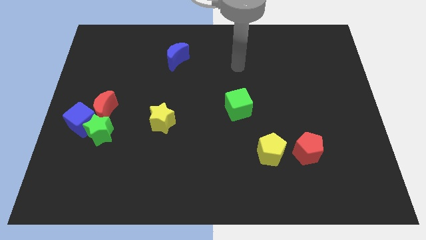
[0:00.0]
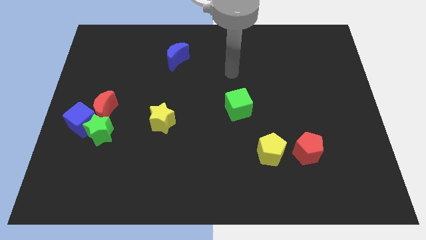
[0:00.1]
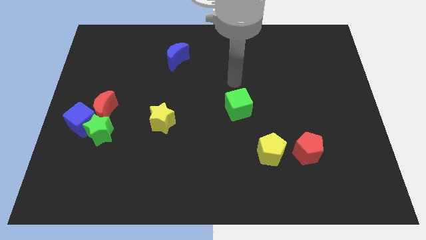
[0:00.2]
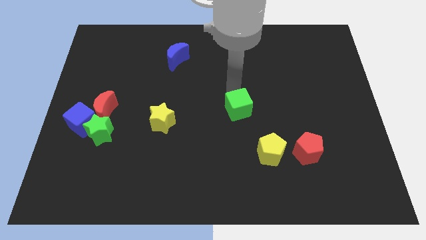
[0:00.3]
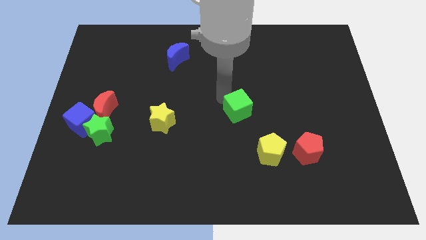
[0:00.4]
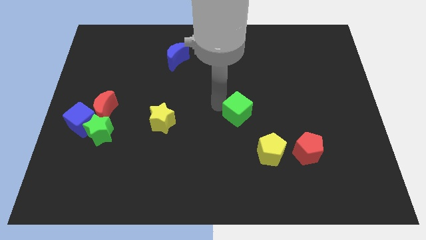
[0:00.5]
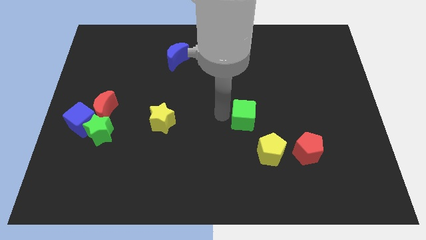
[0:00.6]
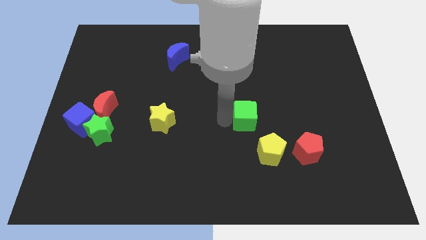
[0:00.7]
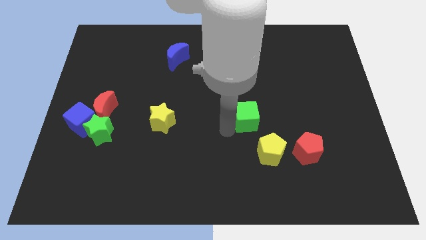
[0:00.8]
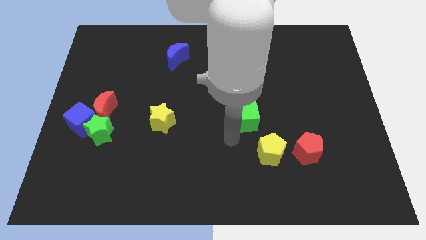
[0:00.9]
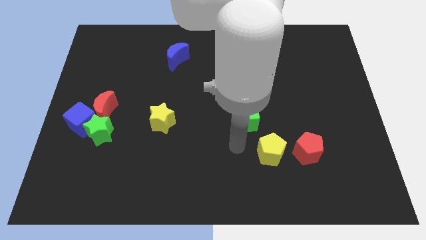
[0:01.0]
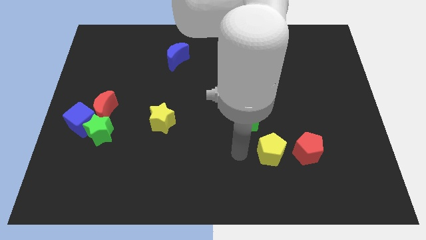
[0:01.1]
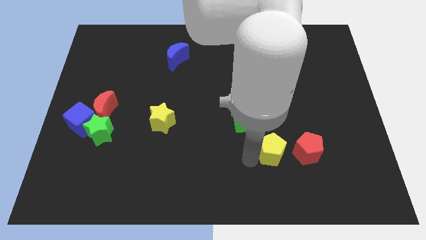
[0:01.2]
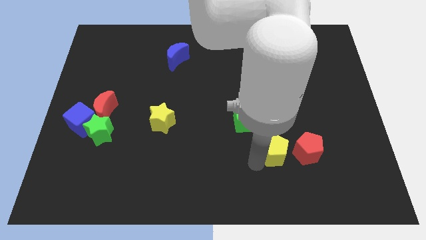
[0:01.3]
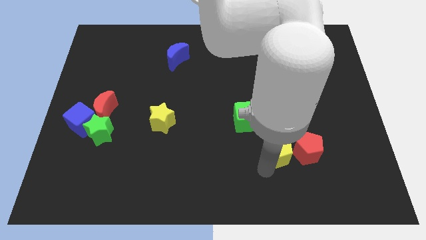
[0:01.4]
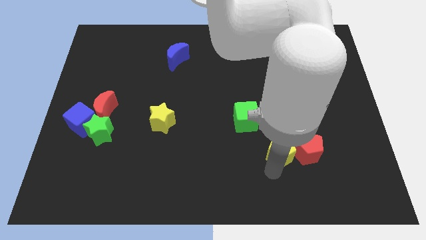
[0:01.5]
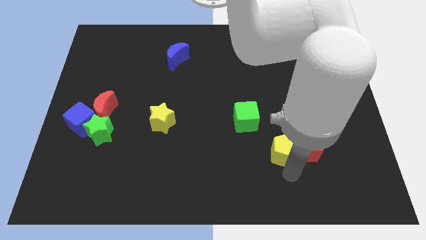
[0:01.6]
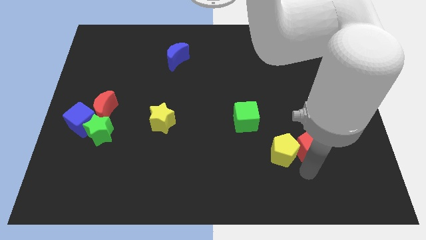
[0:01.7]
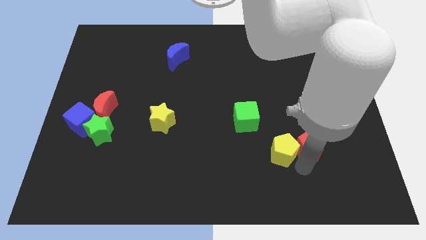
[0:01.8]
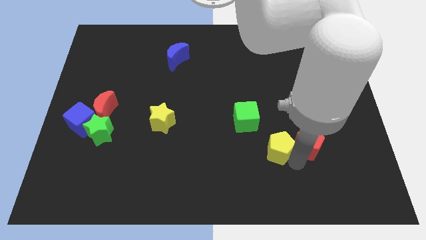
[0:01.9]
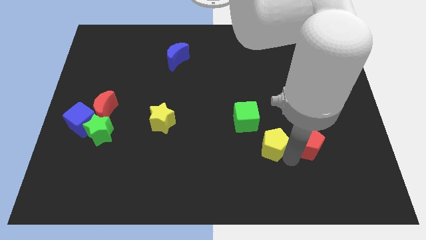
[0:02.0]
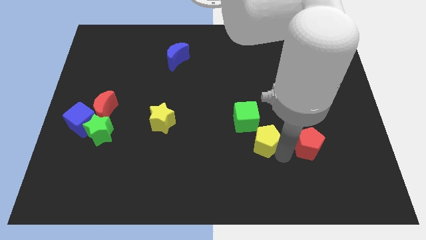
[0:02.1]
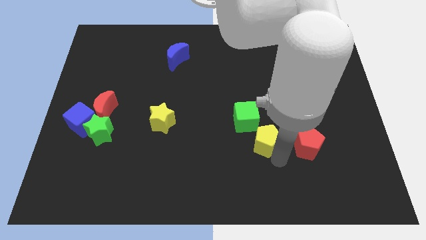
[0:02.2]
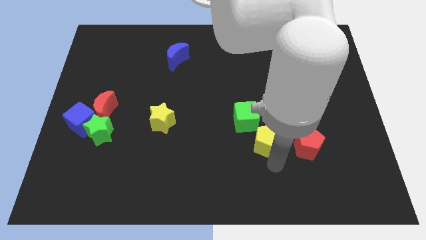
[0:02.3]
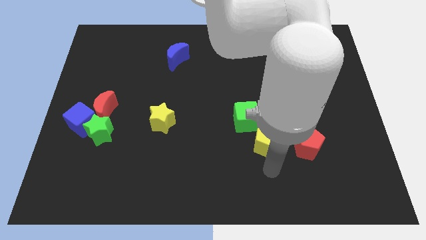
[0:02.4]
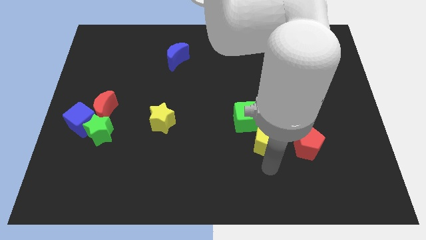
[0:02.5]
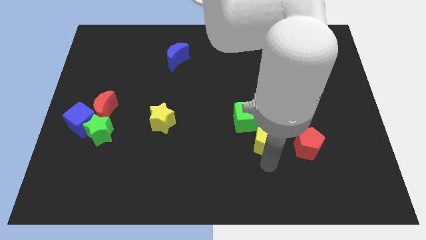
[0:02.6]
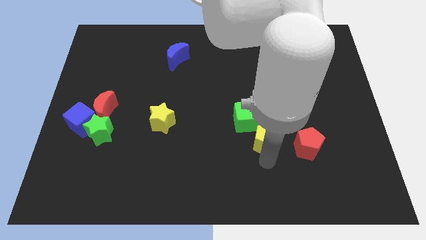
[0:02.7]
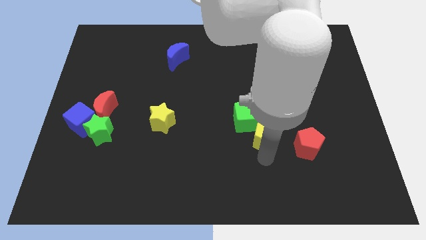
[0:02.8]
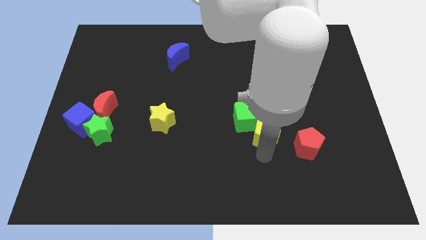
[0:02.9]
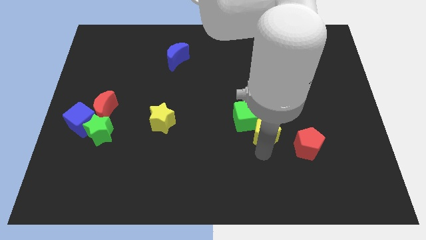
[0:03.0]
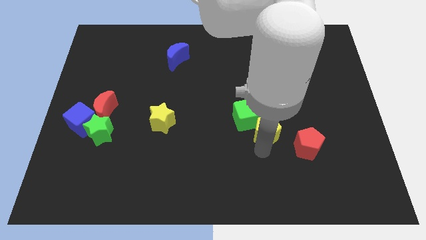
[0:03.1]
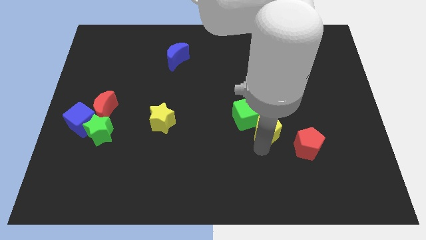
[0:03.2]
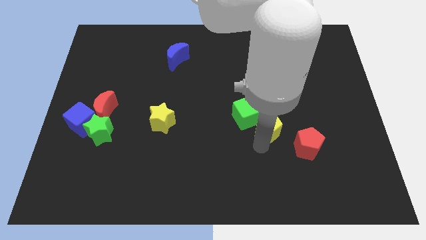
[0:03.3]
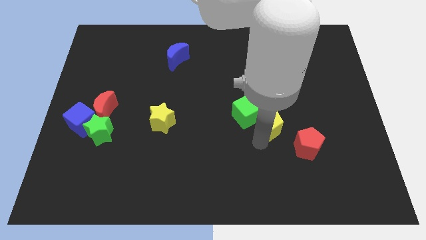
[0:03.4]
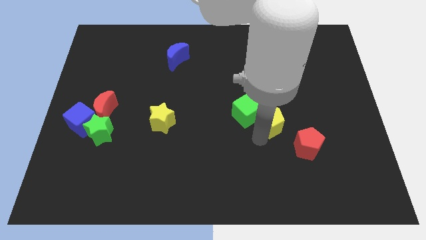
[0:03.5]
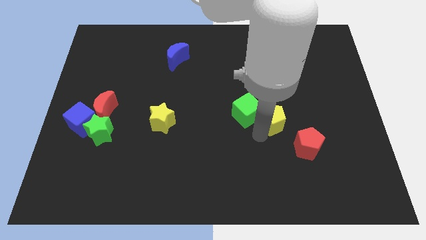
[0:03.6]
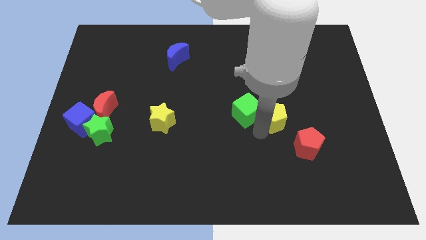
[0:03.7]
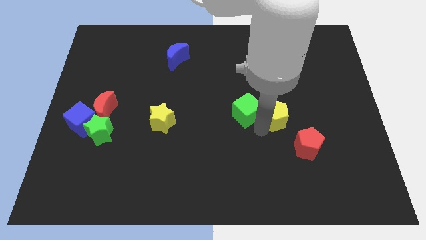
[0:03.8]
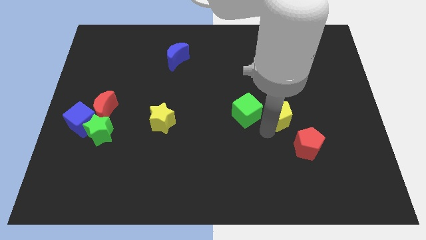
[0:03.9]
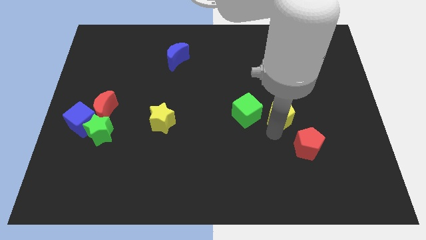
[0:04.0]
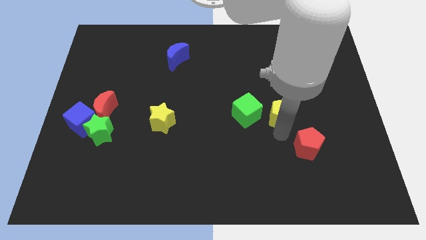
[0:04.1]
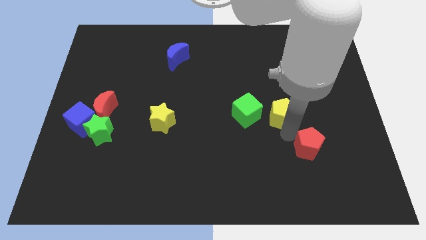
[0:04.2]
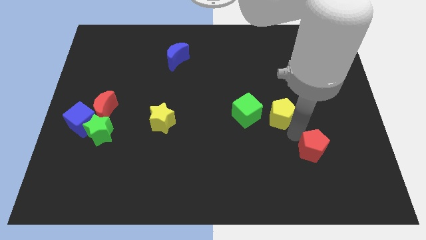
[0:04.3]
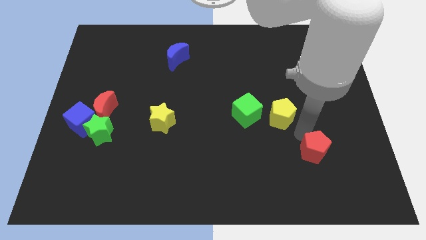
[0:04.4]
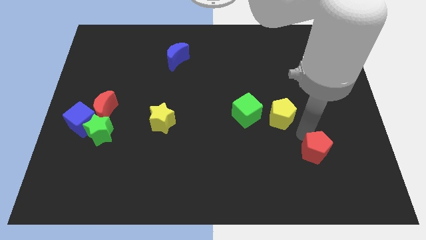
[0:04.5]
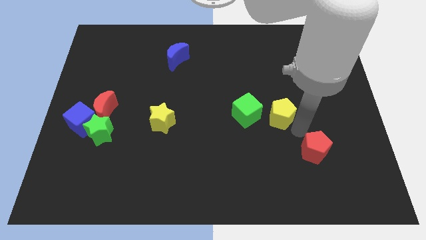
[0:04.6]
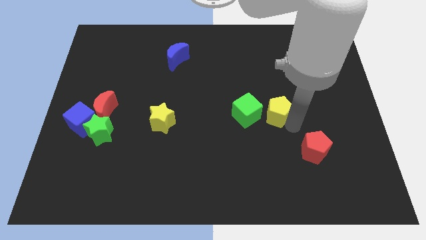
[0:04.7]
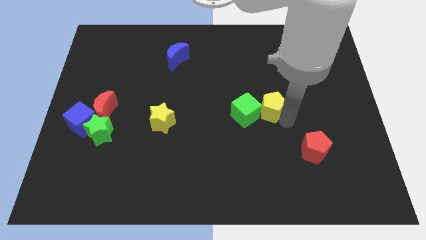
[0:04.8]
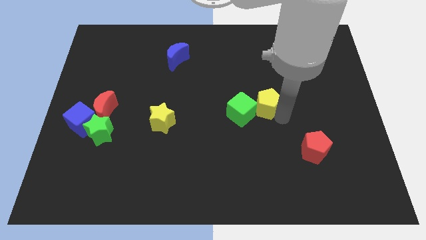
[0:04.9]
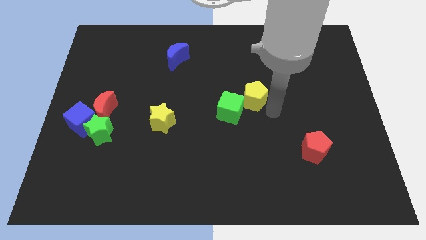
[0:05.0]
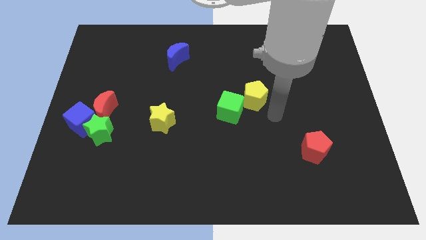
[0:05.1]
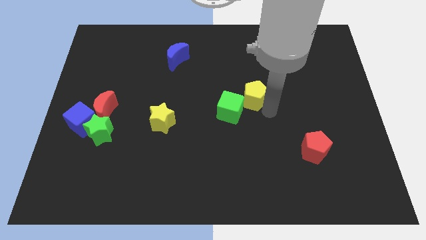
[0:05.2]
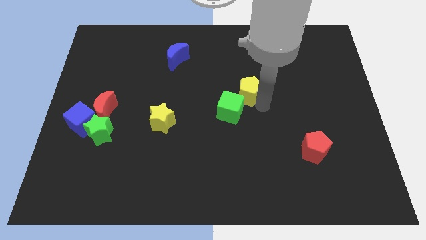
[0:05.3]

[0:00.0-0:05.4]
slide the yellow pentagon above the green cube

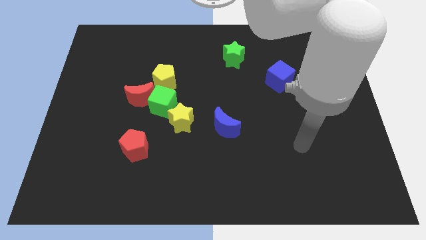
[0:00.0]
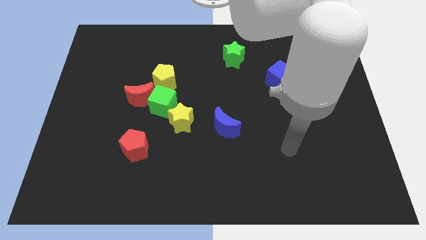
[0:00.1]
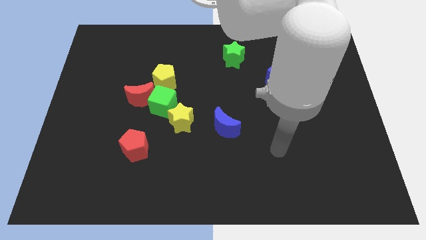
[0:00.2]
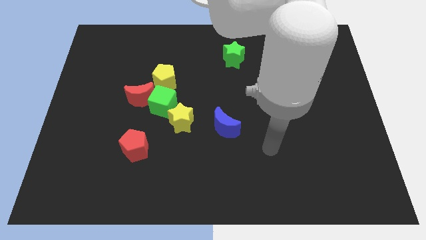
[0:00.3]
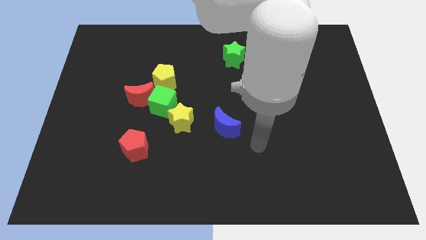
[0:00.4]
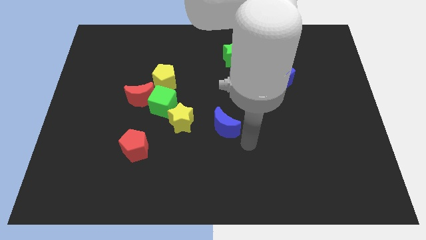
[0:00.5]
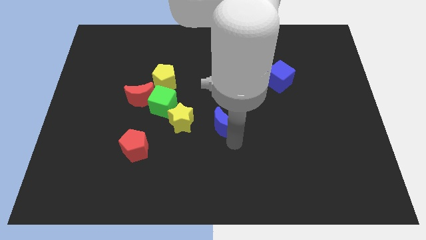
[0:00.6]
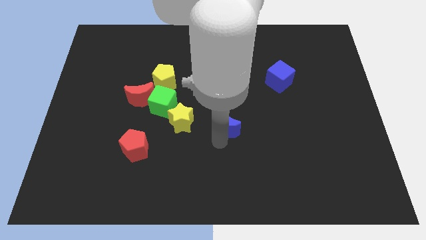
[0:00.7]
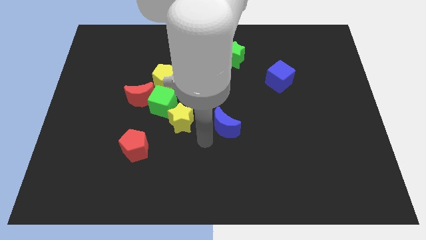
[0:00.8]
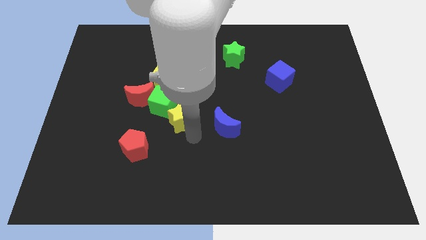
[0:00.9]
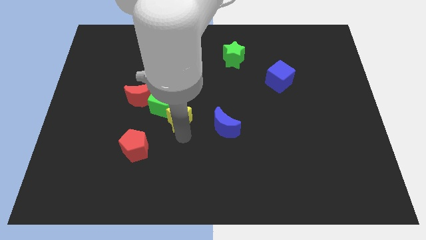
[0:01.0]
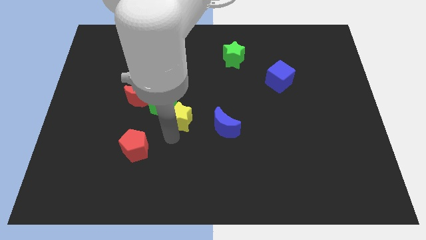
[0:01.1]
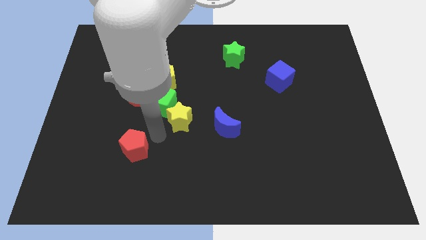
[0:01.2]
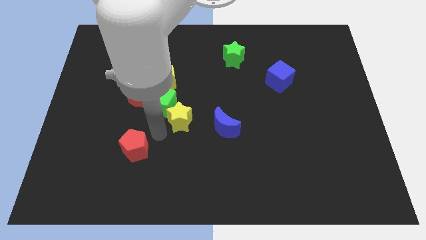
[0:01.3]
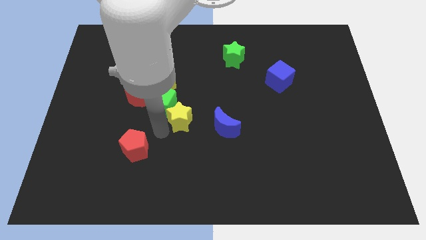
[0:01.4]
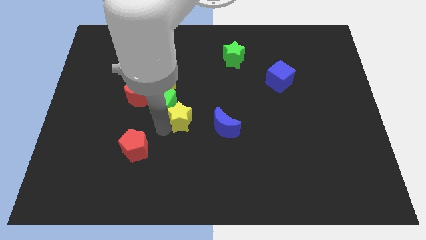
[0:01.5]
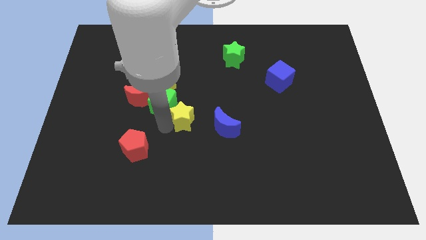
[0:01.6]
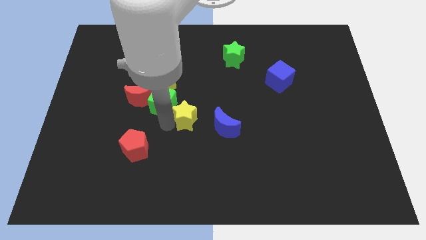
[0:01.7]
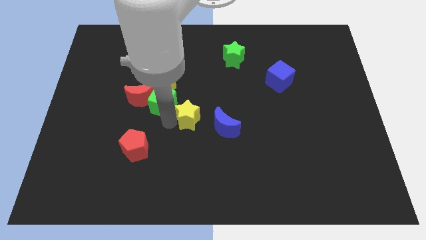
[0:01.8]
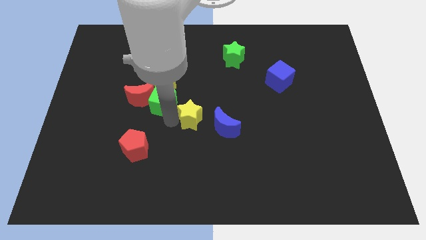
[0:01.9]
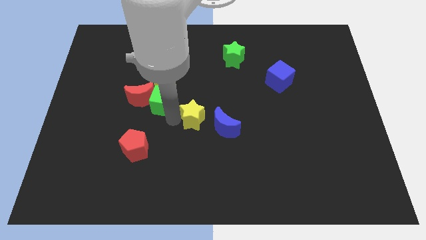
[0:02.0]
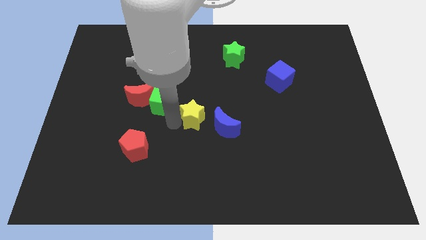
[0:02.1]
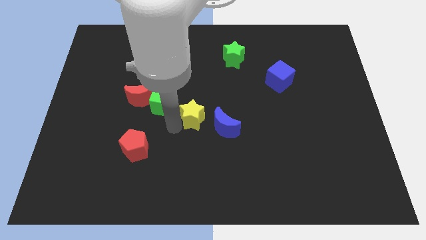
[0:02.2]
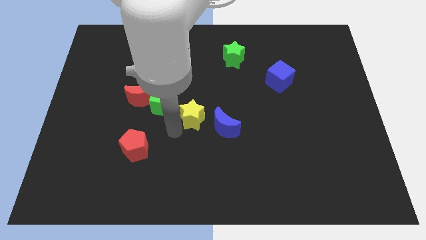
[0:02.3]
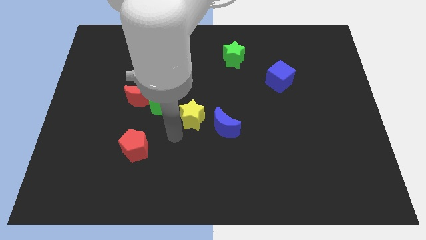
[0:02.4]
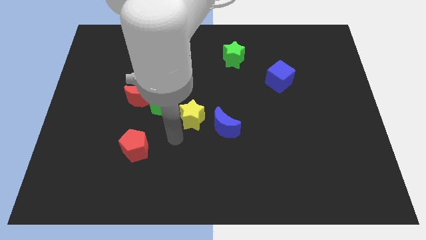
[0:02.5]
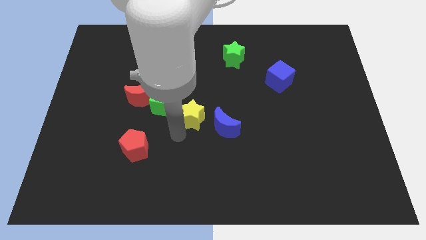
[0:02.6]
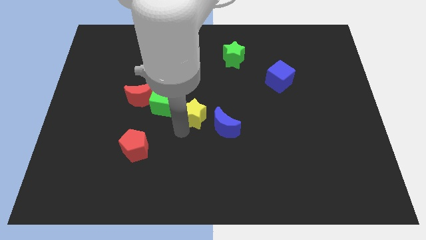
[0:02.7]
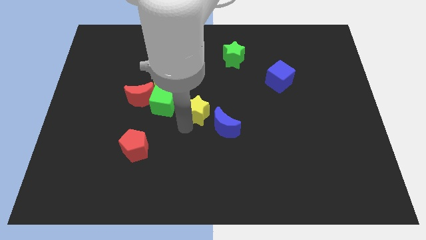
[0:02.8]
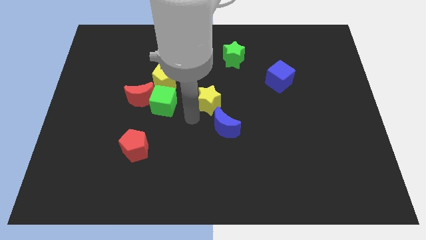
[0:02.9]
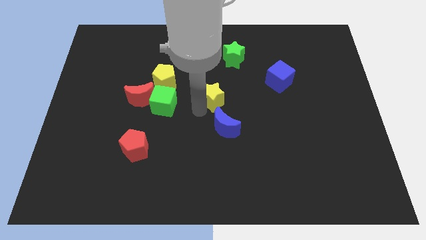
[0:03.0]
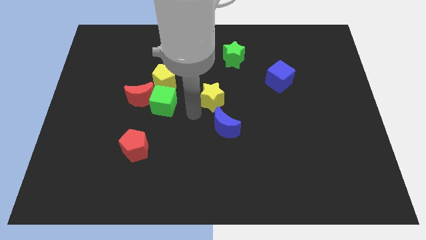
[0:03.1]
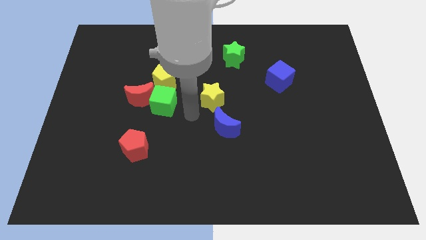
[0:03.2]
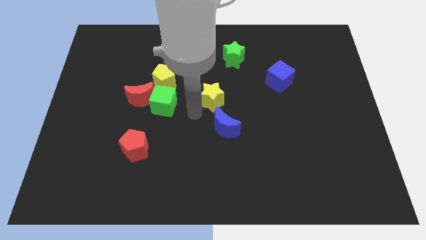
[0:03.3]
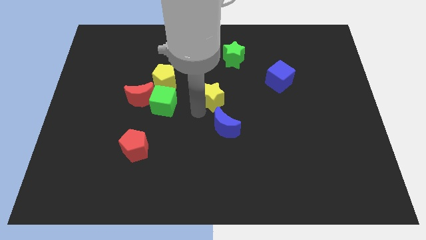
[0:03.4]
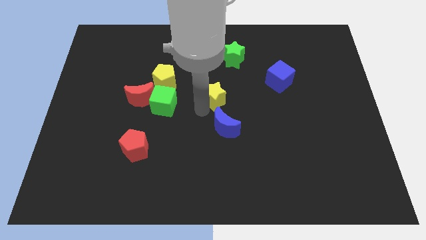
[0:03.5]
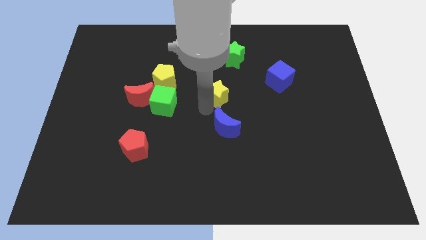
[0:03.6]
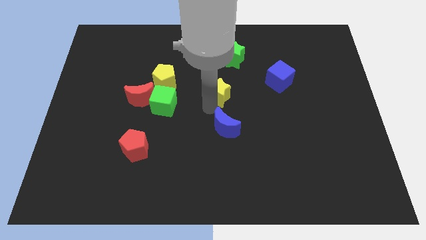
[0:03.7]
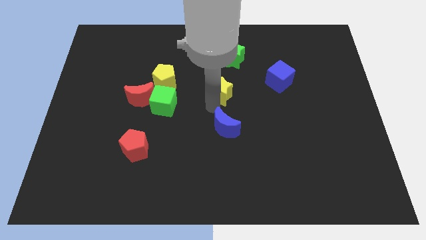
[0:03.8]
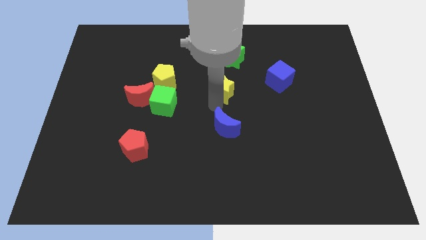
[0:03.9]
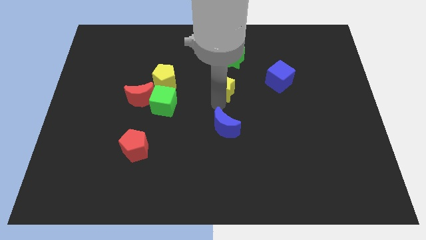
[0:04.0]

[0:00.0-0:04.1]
slide the yellow star to the left of the blue cube
